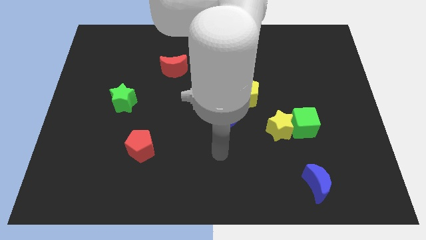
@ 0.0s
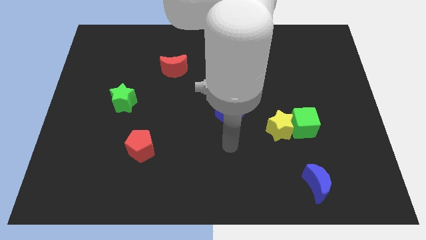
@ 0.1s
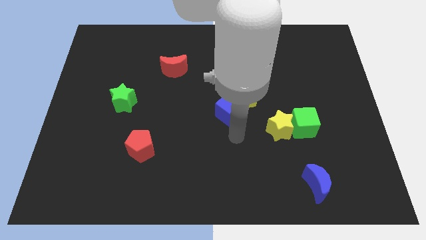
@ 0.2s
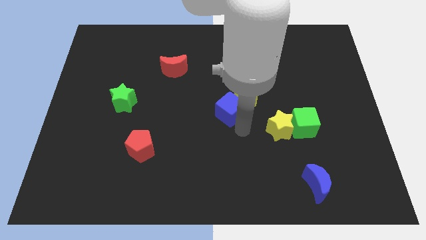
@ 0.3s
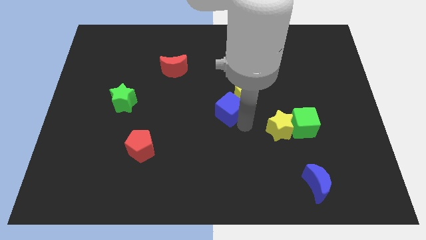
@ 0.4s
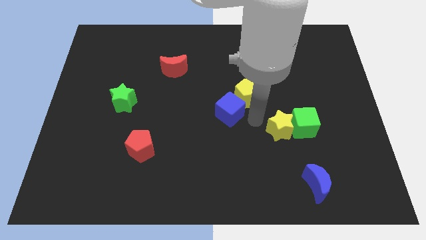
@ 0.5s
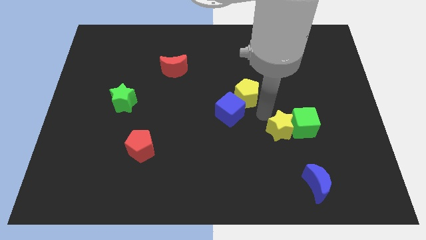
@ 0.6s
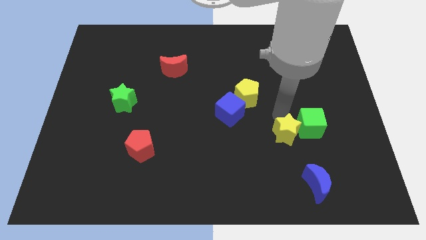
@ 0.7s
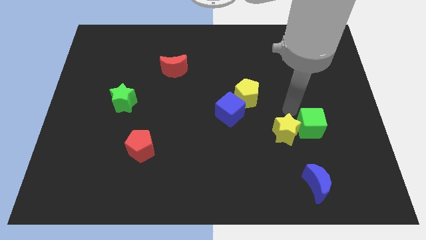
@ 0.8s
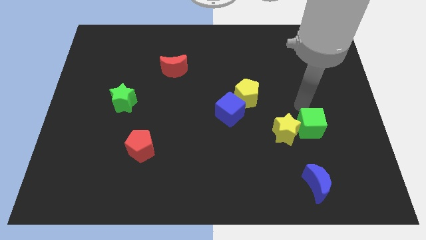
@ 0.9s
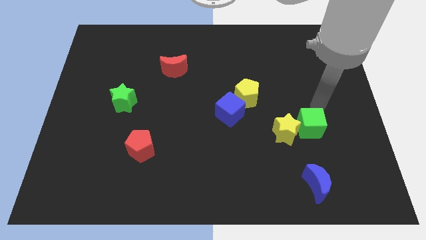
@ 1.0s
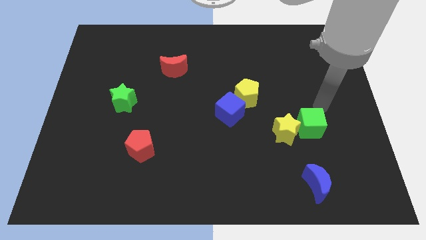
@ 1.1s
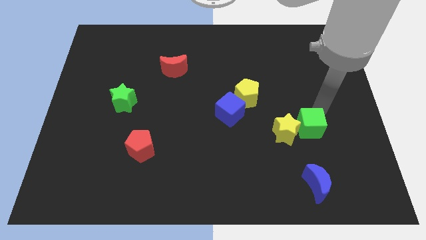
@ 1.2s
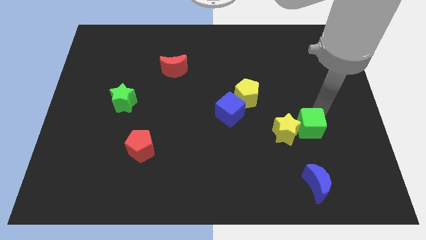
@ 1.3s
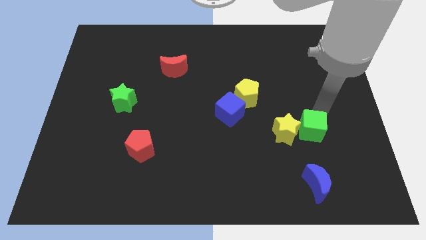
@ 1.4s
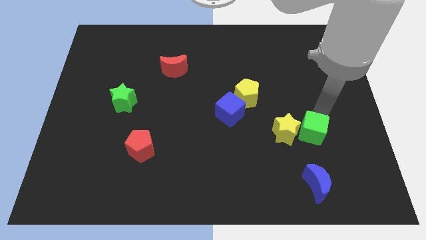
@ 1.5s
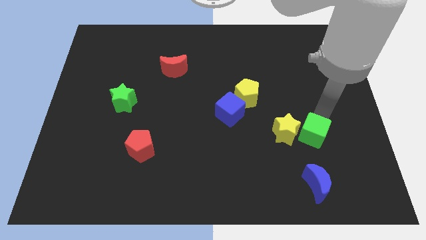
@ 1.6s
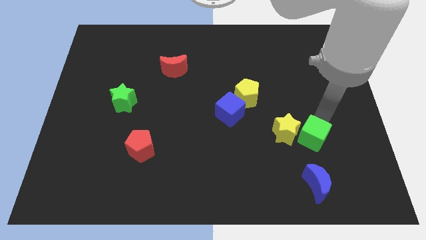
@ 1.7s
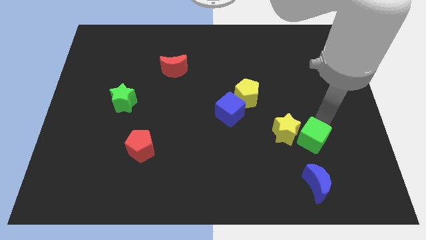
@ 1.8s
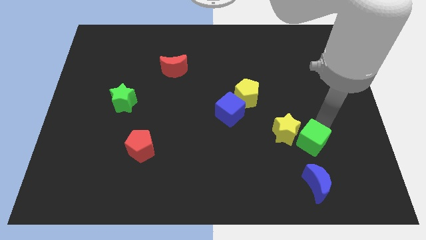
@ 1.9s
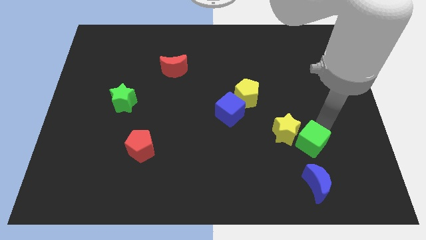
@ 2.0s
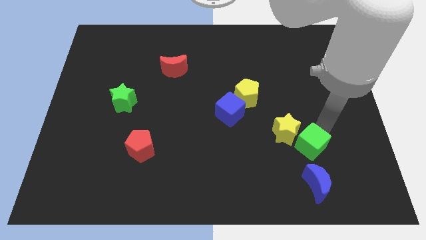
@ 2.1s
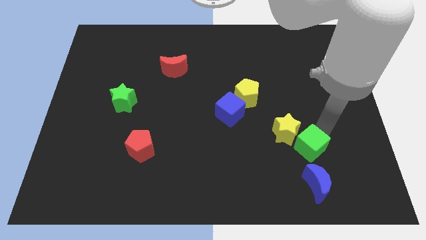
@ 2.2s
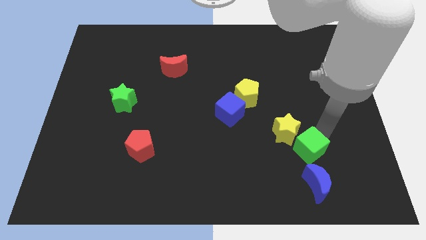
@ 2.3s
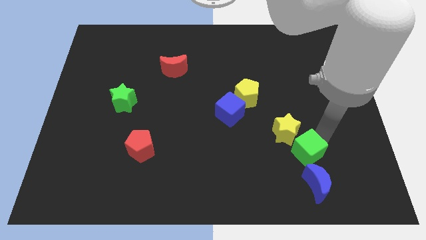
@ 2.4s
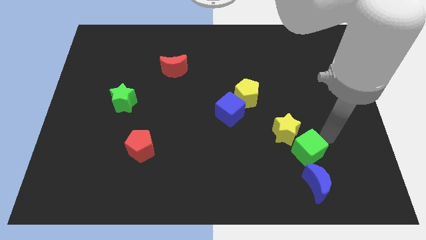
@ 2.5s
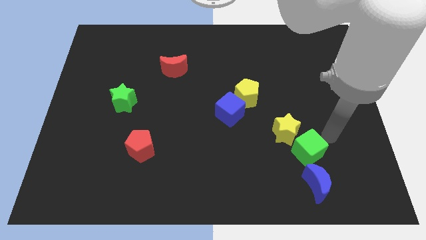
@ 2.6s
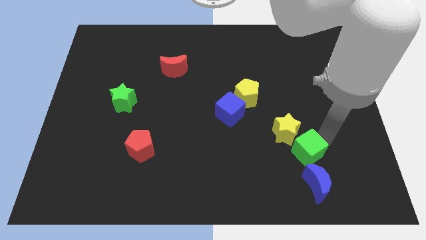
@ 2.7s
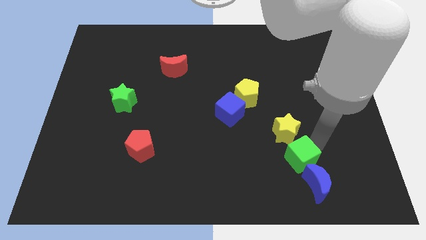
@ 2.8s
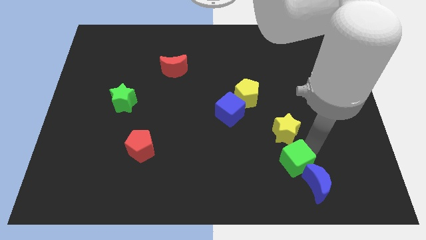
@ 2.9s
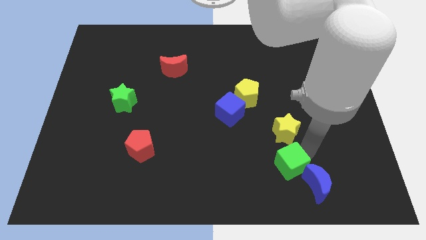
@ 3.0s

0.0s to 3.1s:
put the green cube left of the blue moon

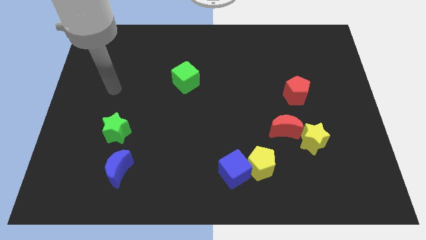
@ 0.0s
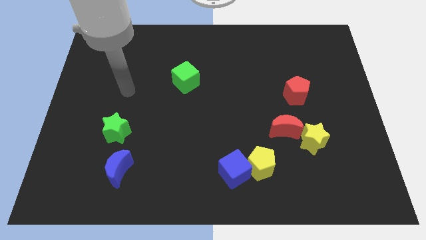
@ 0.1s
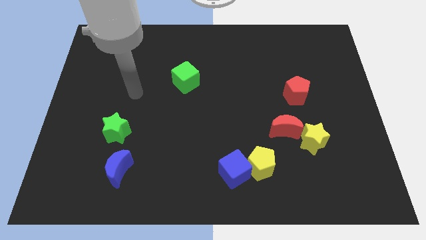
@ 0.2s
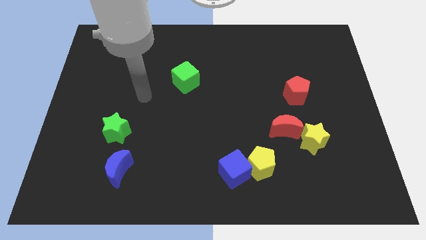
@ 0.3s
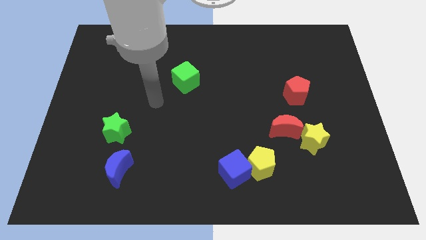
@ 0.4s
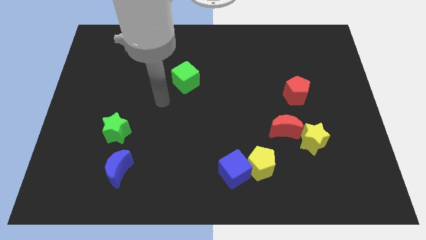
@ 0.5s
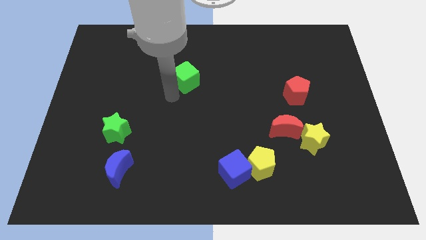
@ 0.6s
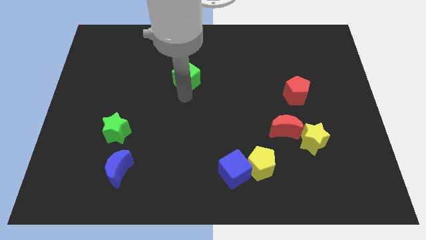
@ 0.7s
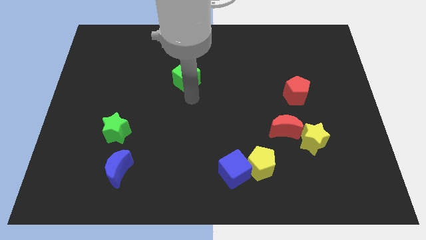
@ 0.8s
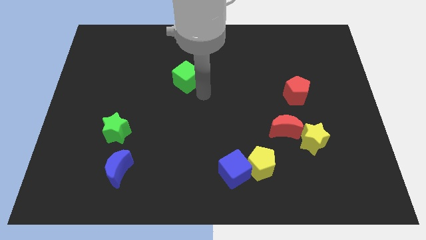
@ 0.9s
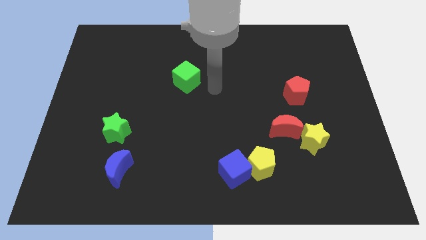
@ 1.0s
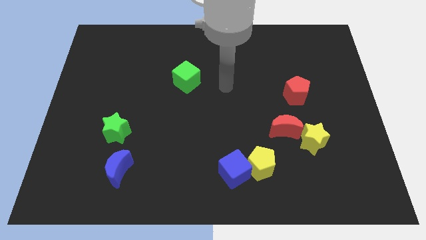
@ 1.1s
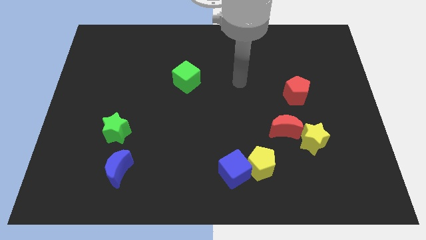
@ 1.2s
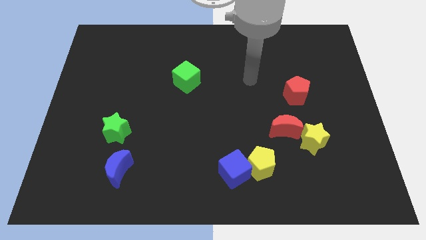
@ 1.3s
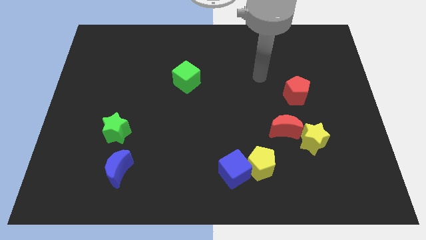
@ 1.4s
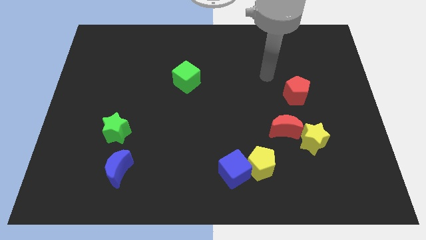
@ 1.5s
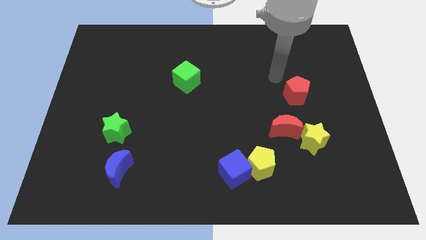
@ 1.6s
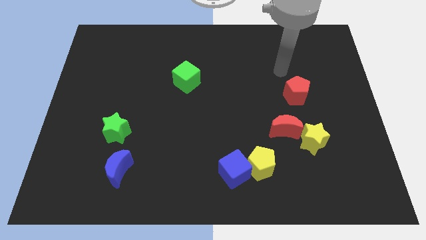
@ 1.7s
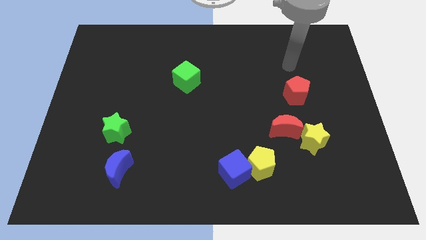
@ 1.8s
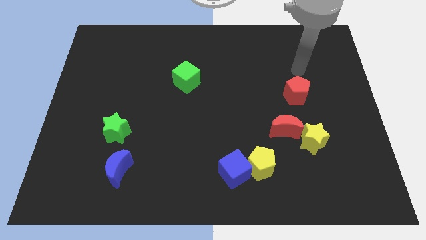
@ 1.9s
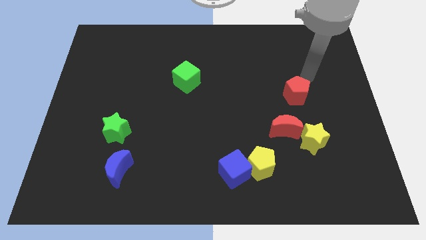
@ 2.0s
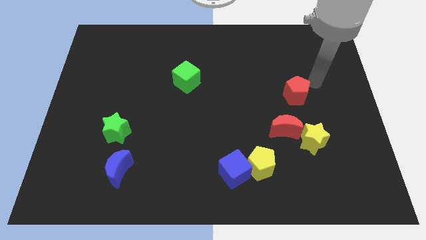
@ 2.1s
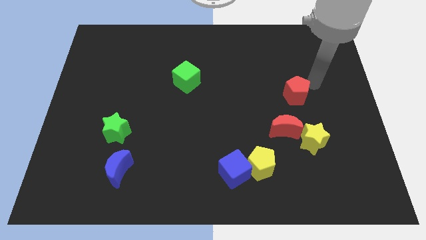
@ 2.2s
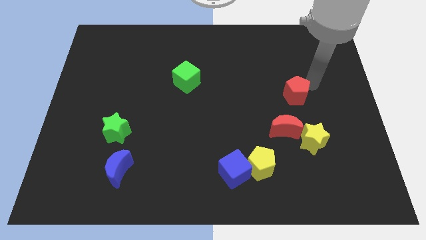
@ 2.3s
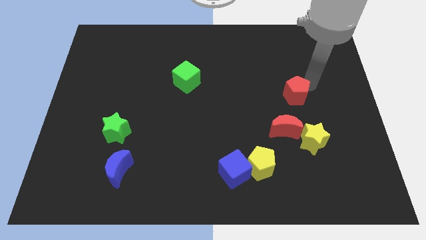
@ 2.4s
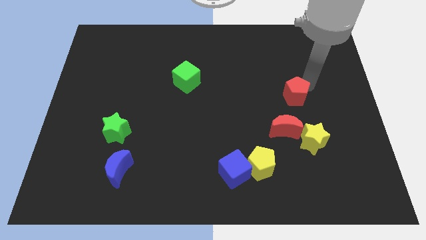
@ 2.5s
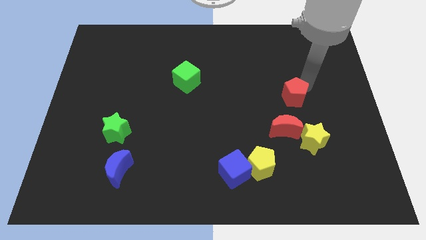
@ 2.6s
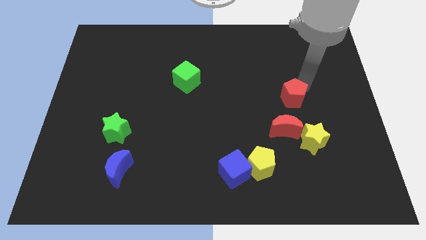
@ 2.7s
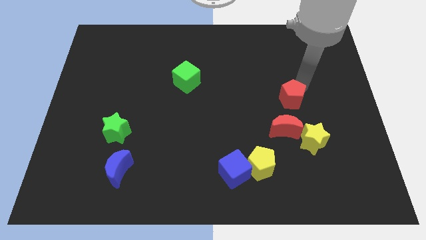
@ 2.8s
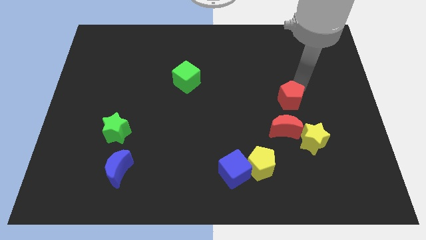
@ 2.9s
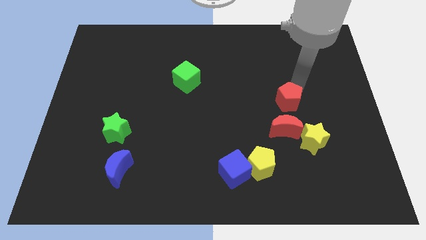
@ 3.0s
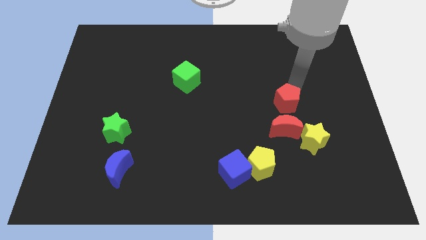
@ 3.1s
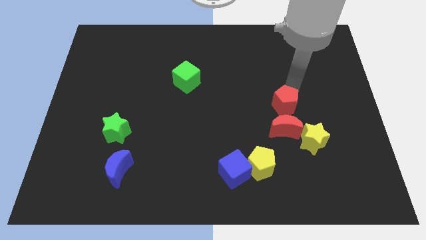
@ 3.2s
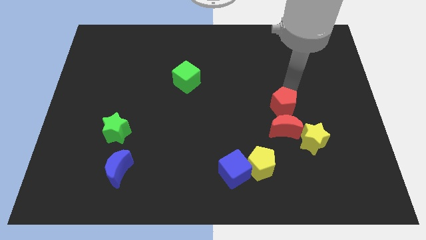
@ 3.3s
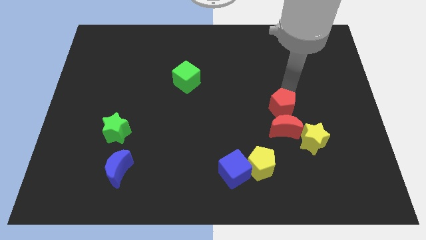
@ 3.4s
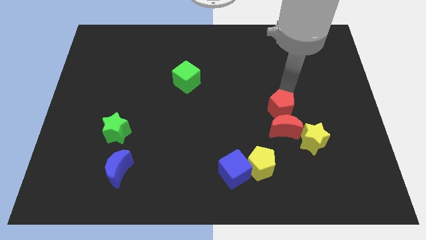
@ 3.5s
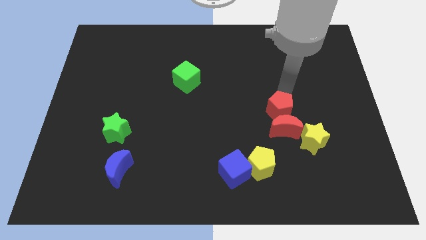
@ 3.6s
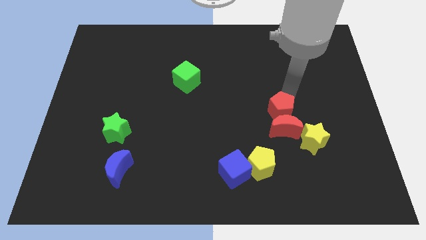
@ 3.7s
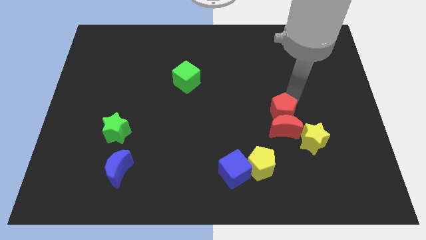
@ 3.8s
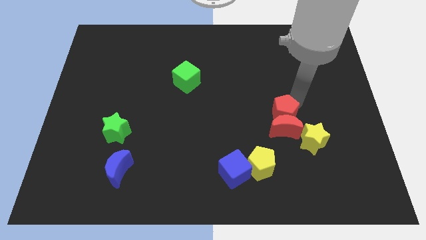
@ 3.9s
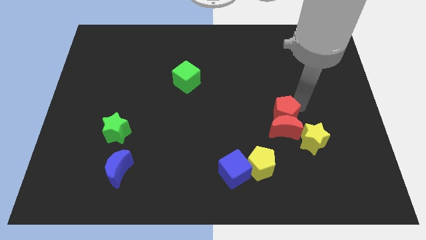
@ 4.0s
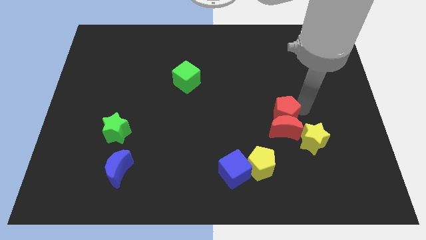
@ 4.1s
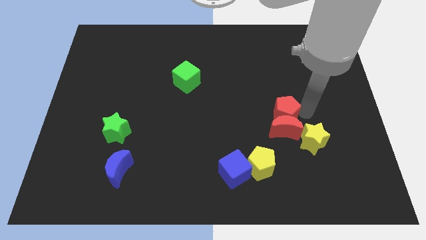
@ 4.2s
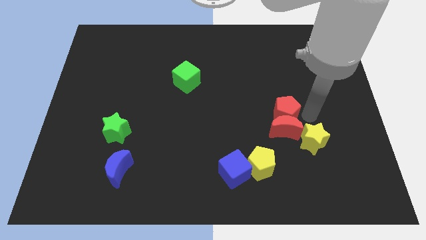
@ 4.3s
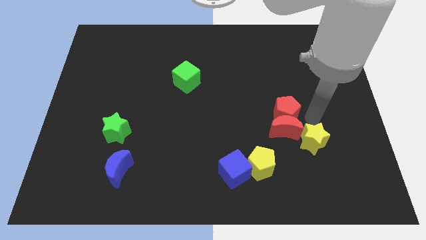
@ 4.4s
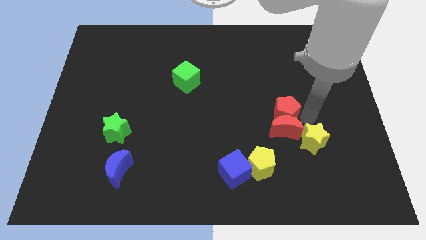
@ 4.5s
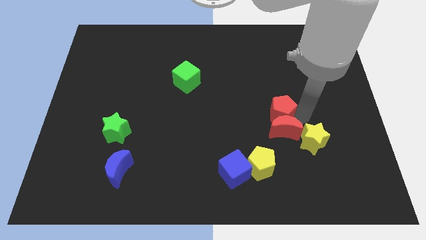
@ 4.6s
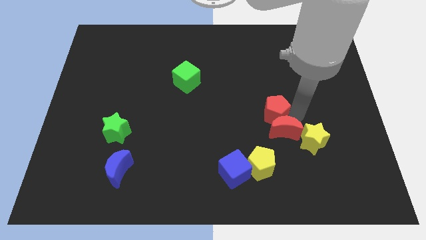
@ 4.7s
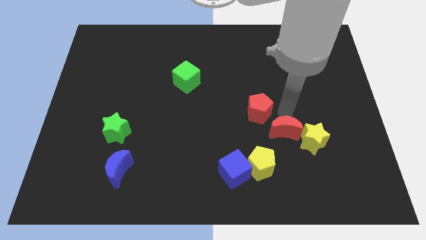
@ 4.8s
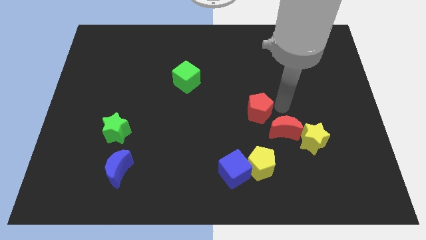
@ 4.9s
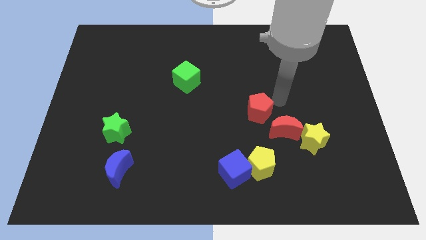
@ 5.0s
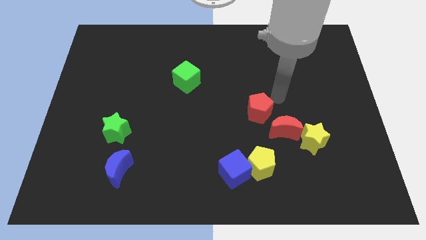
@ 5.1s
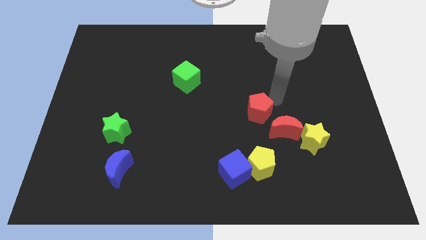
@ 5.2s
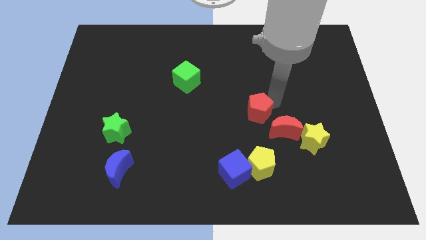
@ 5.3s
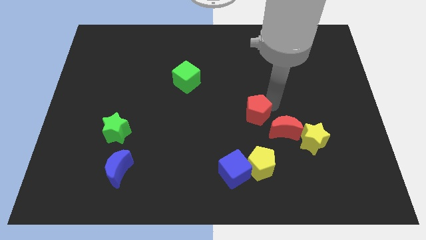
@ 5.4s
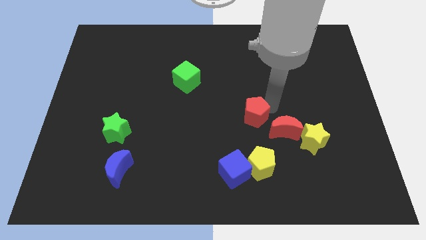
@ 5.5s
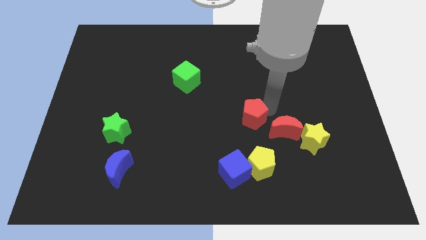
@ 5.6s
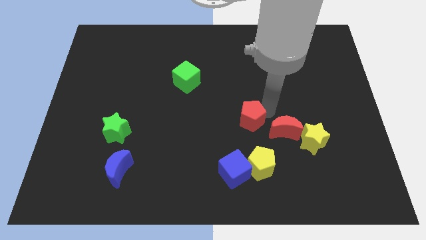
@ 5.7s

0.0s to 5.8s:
move the red pentagon to the top of the blue cube
